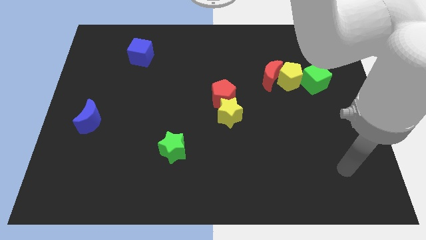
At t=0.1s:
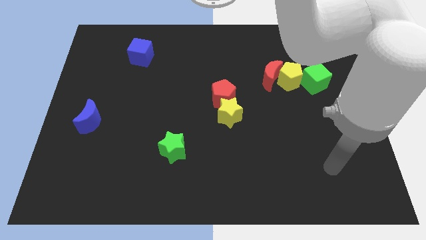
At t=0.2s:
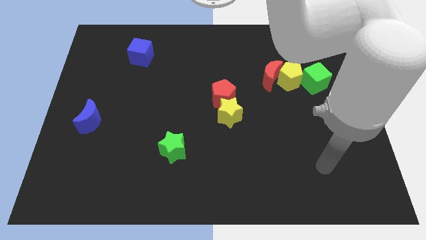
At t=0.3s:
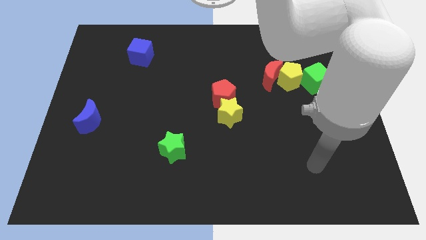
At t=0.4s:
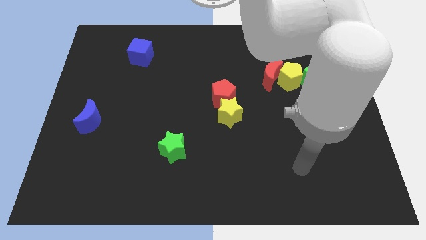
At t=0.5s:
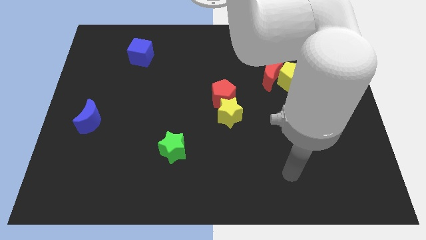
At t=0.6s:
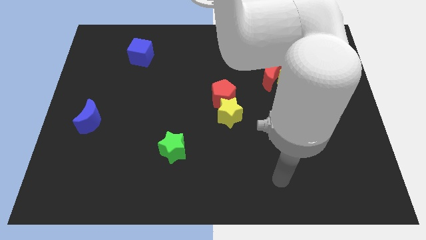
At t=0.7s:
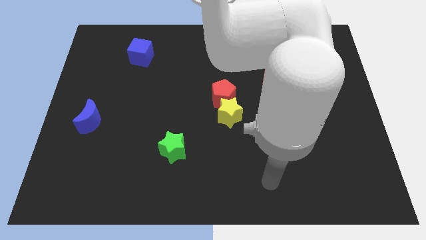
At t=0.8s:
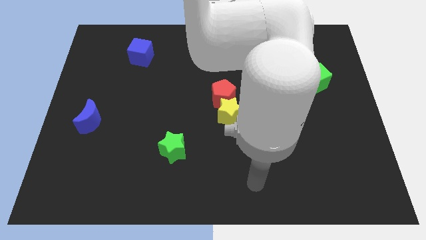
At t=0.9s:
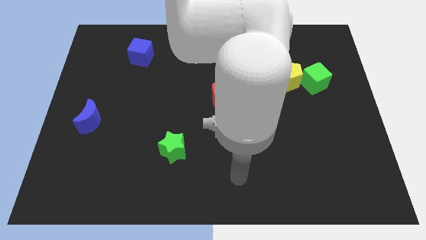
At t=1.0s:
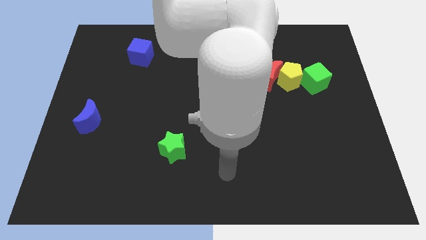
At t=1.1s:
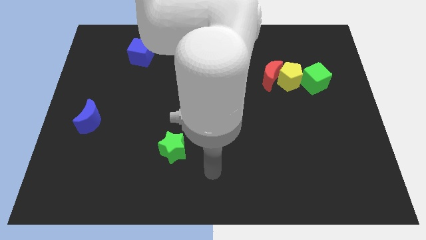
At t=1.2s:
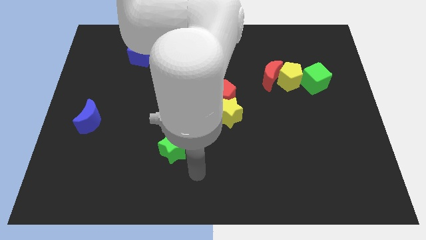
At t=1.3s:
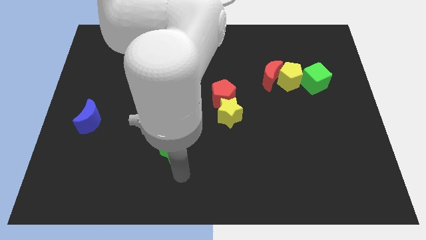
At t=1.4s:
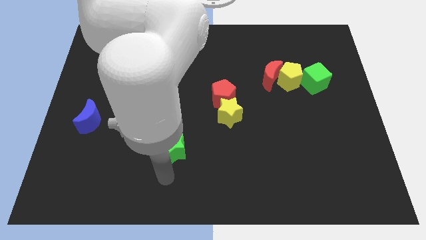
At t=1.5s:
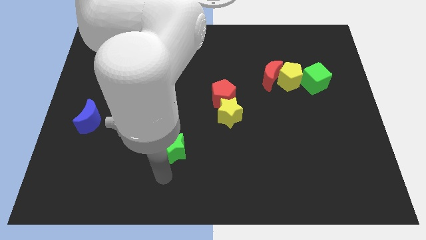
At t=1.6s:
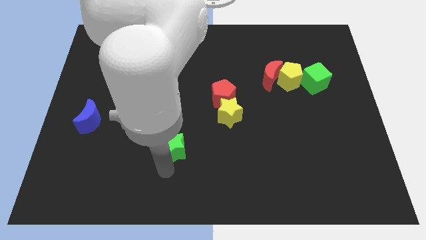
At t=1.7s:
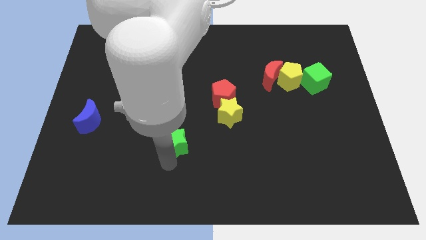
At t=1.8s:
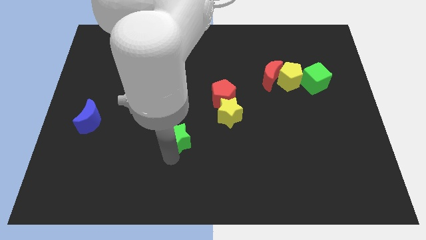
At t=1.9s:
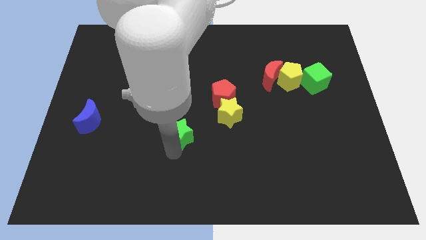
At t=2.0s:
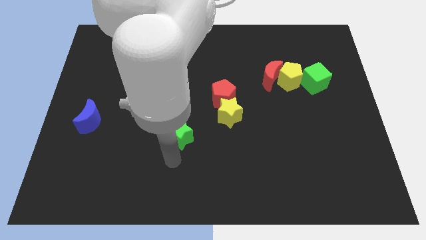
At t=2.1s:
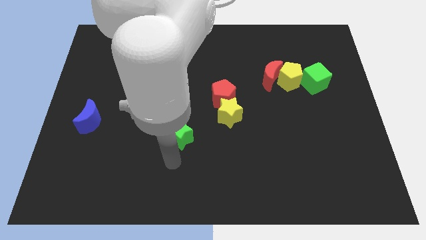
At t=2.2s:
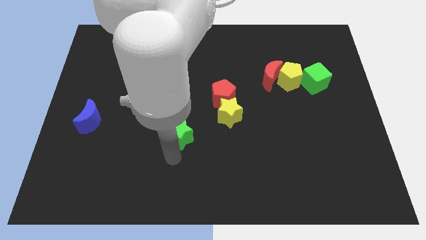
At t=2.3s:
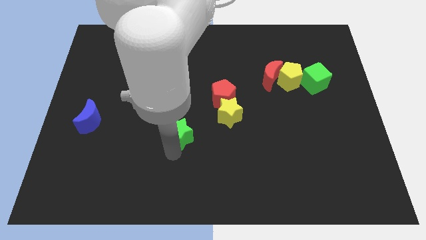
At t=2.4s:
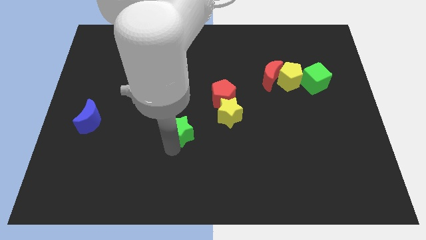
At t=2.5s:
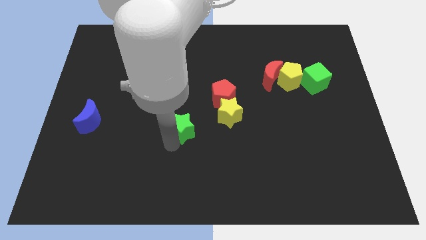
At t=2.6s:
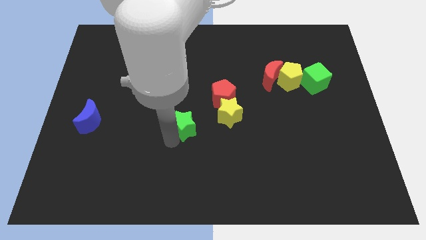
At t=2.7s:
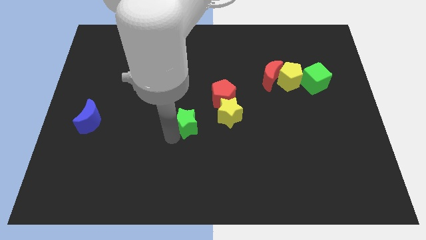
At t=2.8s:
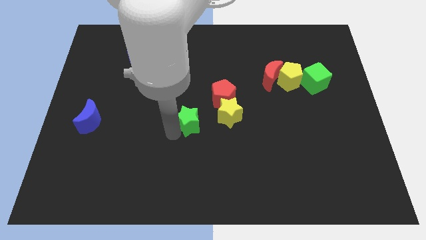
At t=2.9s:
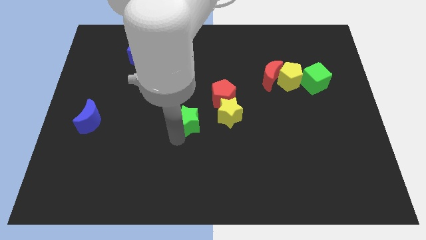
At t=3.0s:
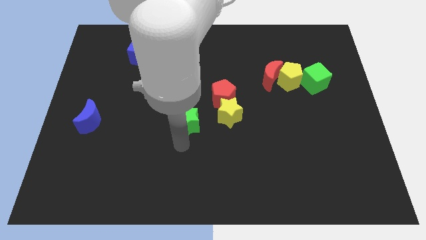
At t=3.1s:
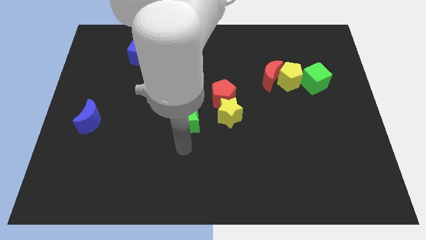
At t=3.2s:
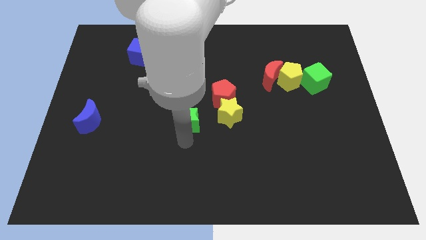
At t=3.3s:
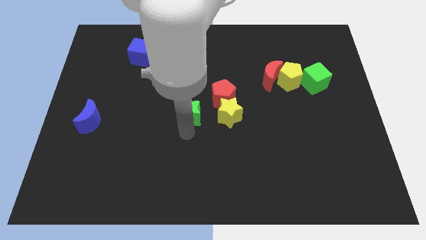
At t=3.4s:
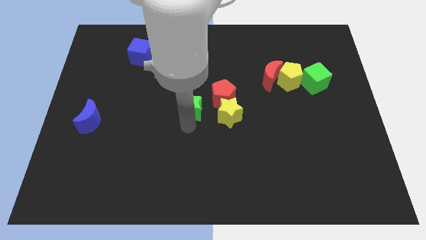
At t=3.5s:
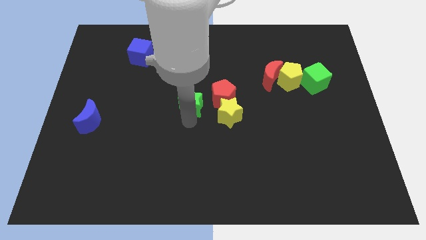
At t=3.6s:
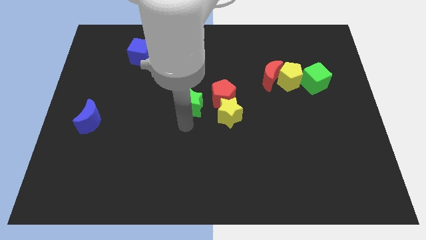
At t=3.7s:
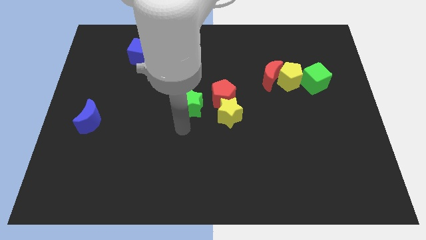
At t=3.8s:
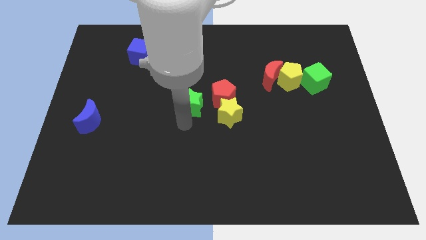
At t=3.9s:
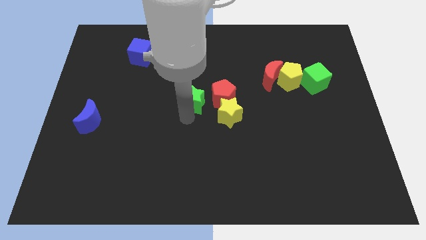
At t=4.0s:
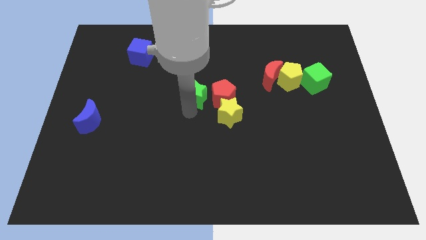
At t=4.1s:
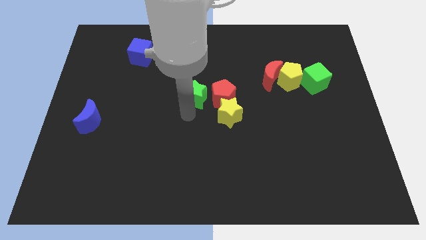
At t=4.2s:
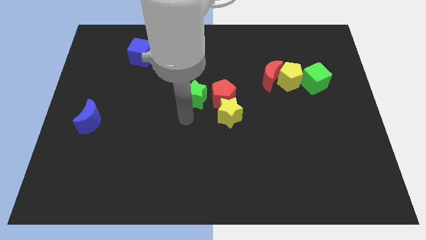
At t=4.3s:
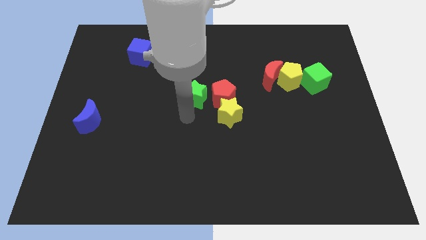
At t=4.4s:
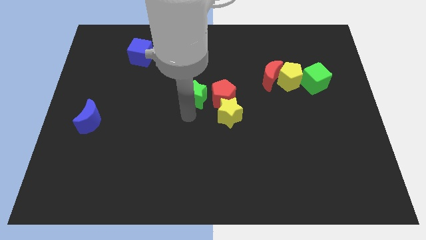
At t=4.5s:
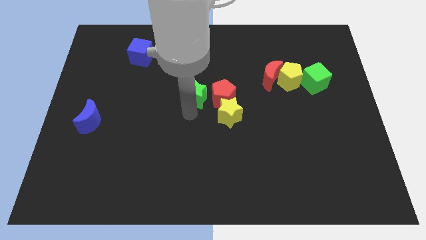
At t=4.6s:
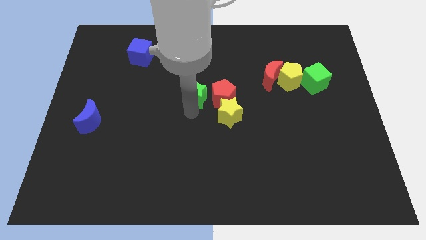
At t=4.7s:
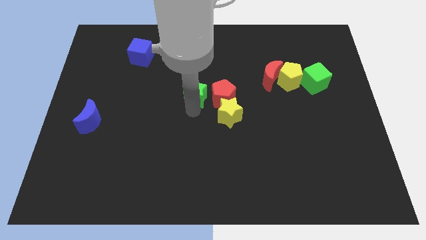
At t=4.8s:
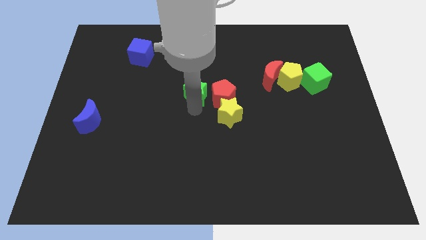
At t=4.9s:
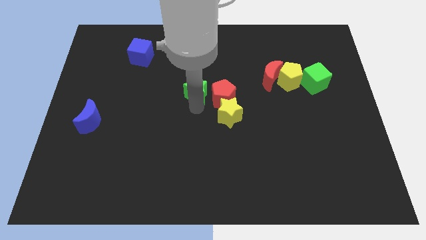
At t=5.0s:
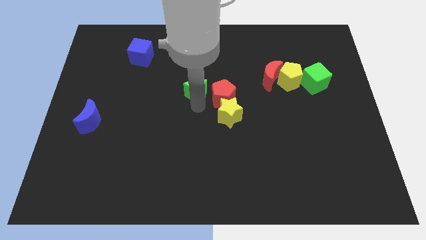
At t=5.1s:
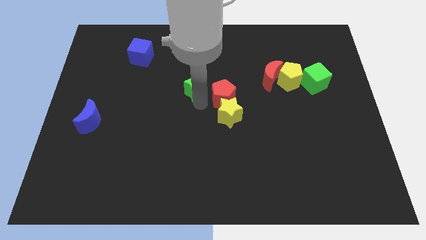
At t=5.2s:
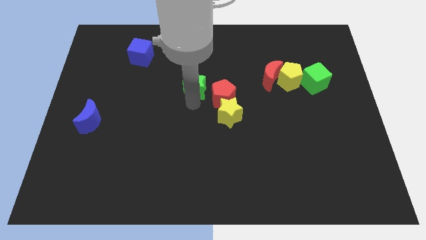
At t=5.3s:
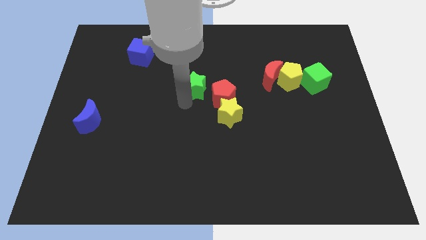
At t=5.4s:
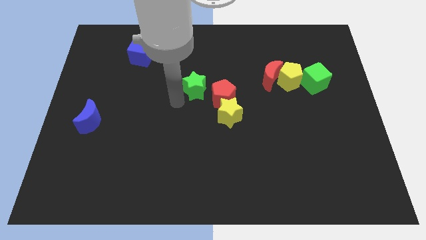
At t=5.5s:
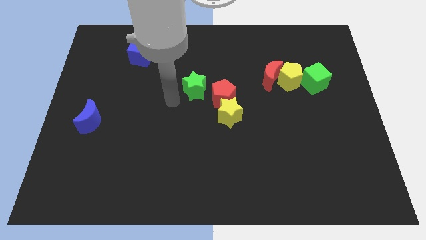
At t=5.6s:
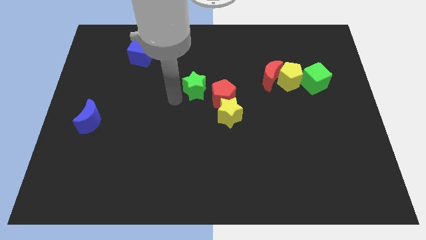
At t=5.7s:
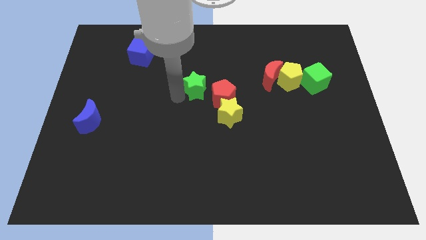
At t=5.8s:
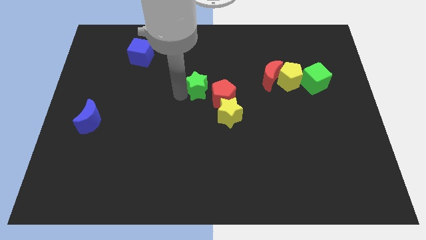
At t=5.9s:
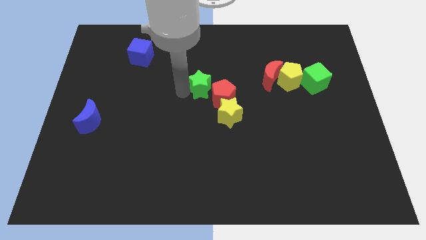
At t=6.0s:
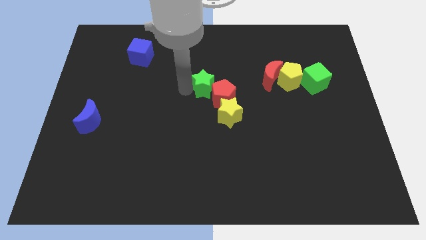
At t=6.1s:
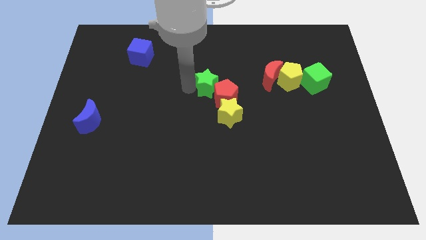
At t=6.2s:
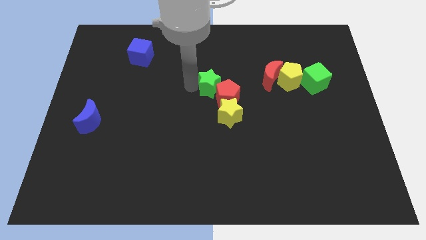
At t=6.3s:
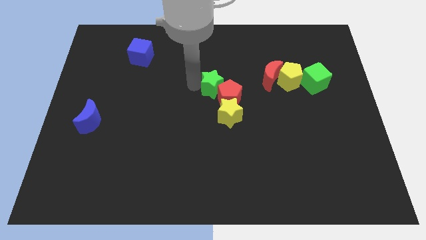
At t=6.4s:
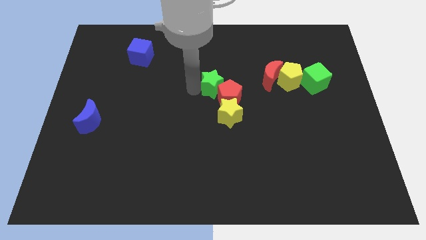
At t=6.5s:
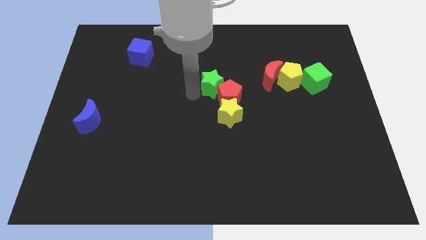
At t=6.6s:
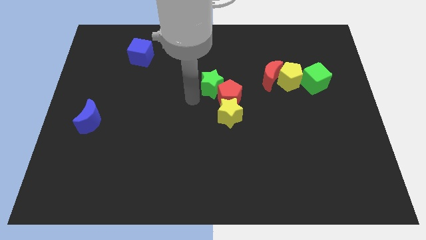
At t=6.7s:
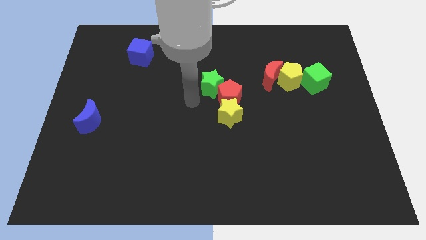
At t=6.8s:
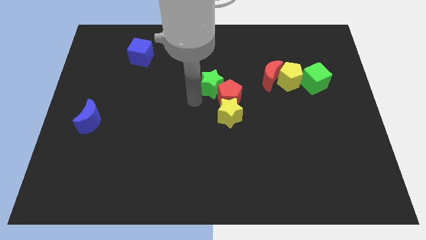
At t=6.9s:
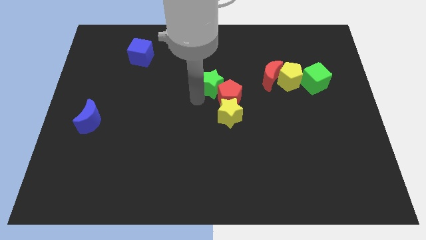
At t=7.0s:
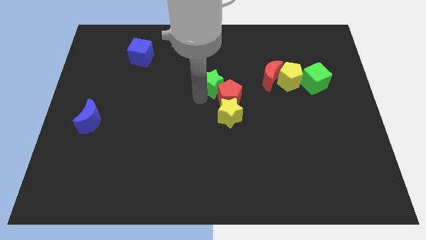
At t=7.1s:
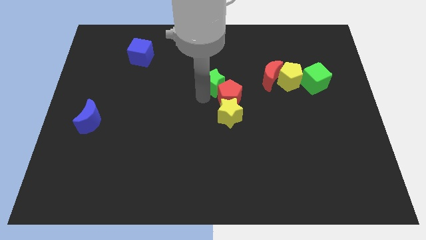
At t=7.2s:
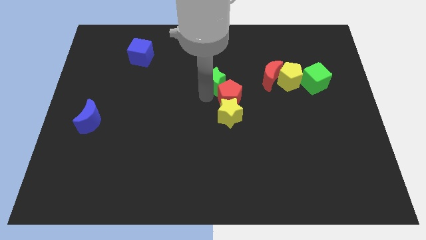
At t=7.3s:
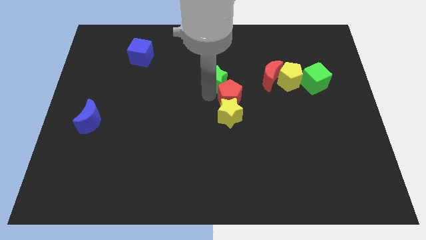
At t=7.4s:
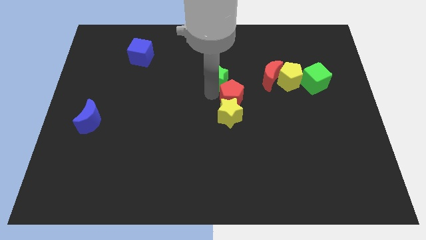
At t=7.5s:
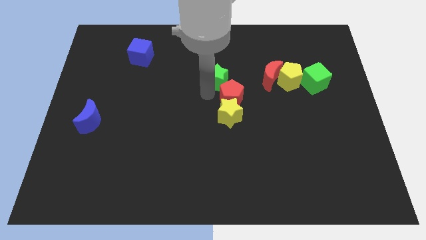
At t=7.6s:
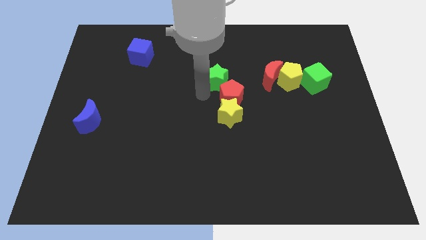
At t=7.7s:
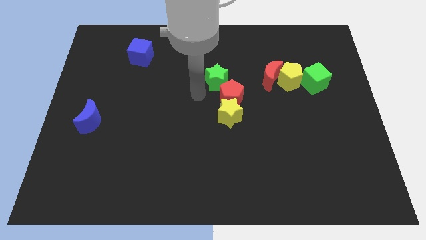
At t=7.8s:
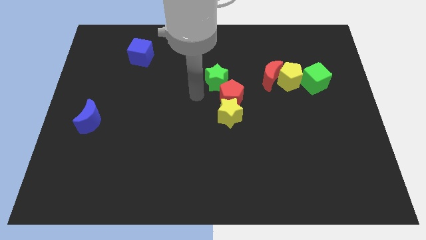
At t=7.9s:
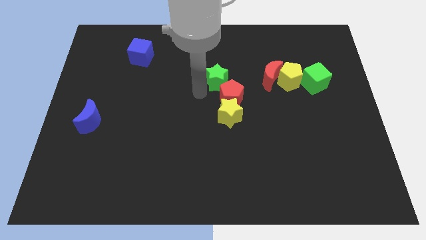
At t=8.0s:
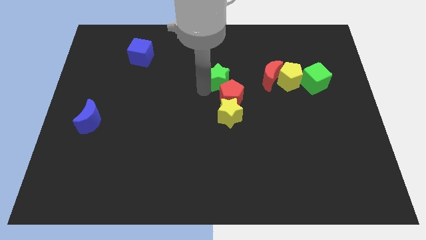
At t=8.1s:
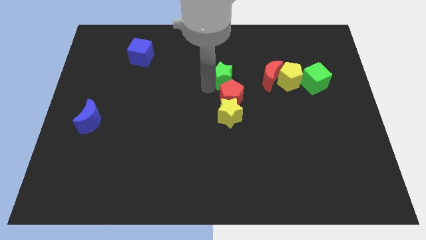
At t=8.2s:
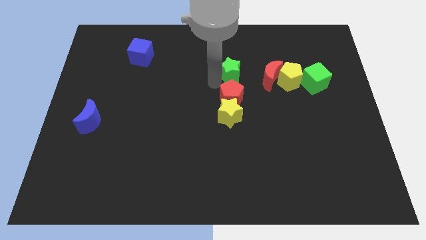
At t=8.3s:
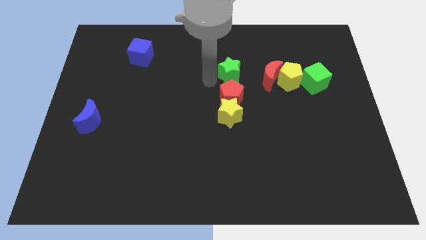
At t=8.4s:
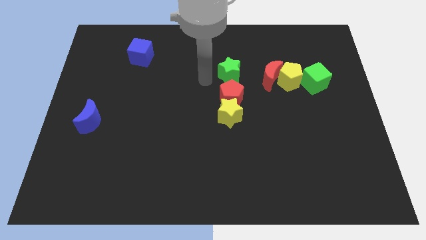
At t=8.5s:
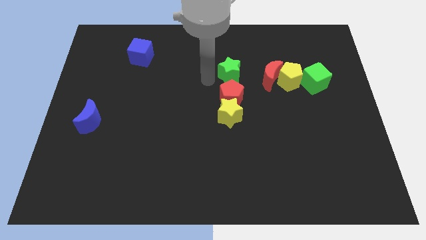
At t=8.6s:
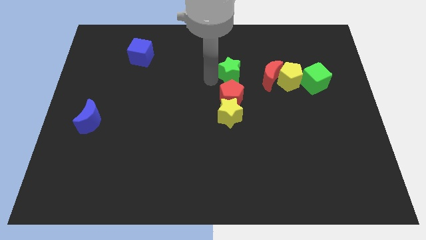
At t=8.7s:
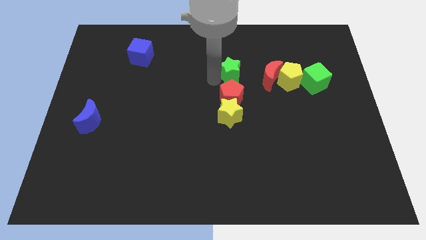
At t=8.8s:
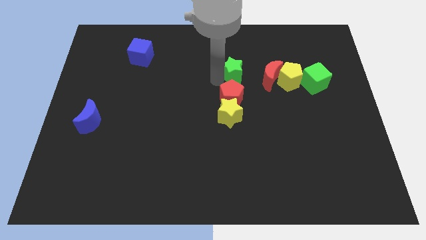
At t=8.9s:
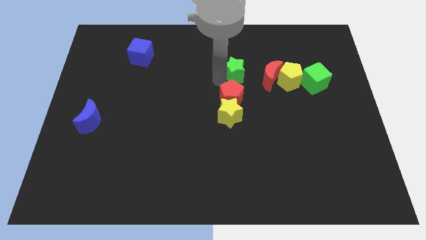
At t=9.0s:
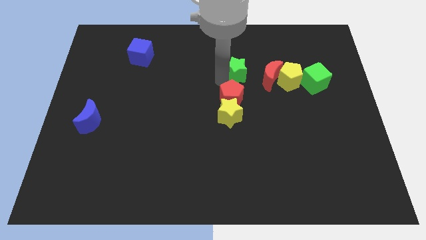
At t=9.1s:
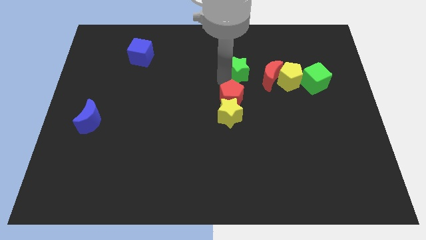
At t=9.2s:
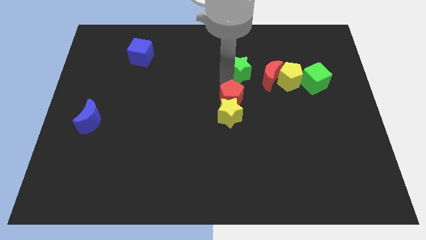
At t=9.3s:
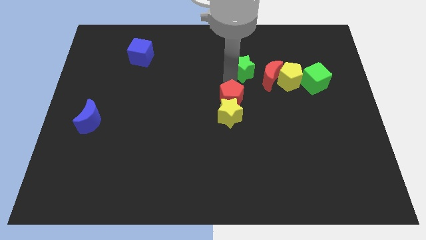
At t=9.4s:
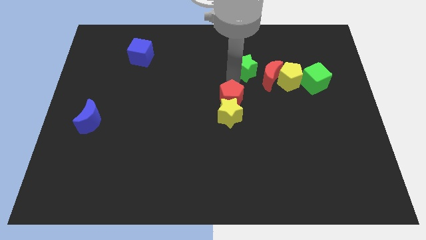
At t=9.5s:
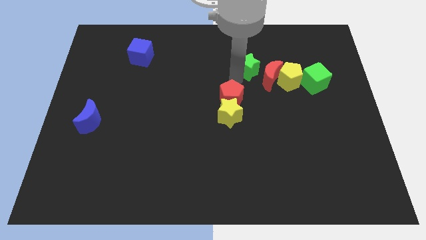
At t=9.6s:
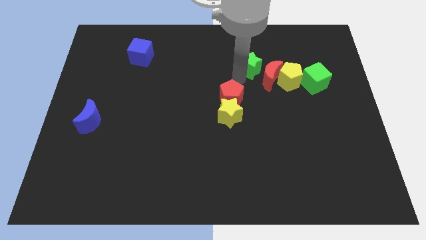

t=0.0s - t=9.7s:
move the green star to the top left of the yellow pentagon
